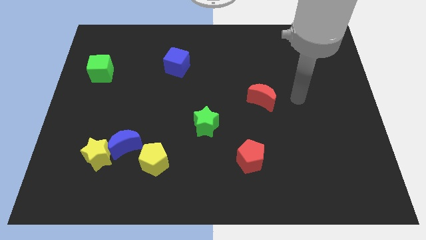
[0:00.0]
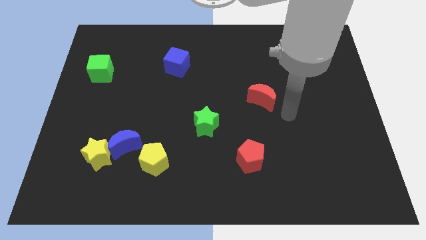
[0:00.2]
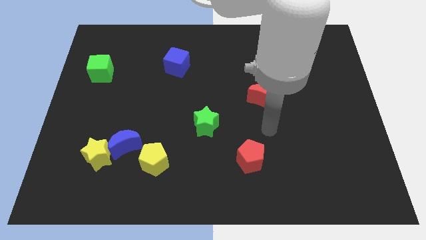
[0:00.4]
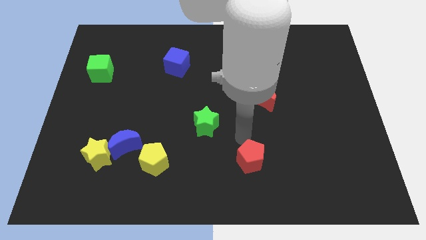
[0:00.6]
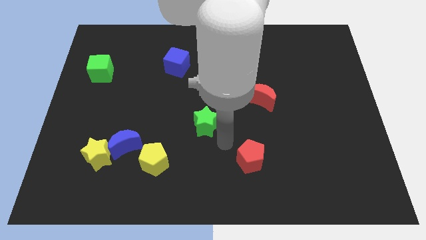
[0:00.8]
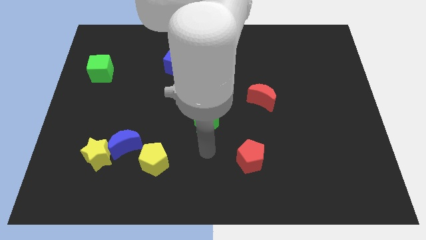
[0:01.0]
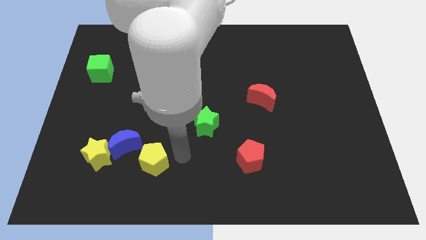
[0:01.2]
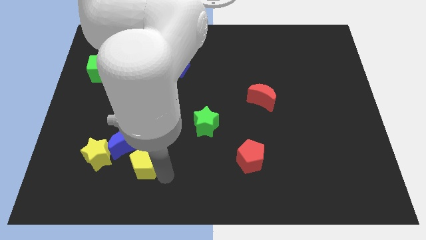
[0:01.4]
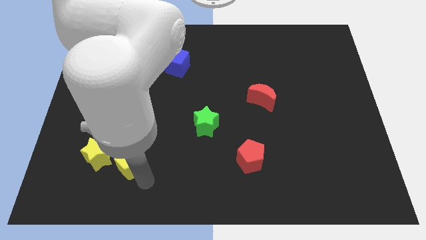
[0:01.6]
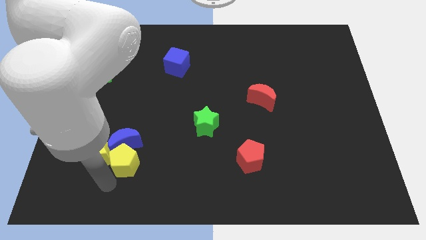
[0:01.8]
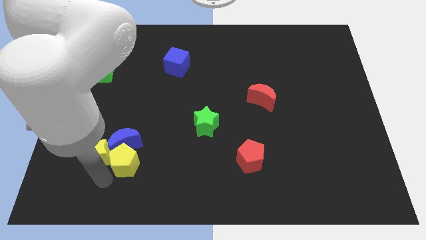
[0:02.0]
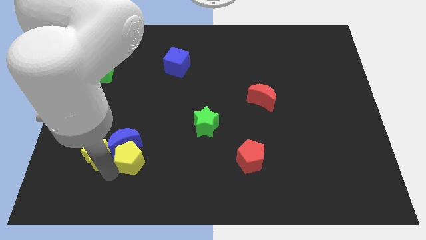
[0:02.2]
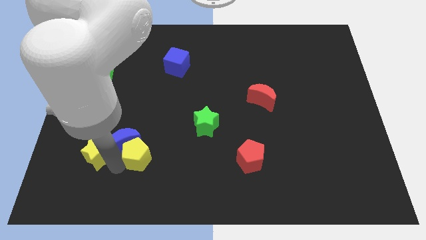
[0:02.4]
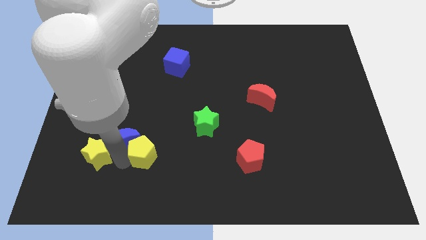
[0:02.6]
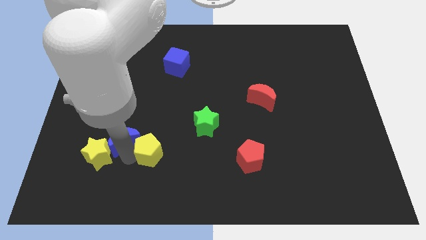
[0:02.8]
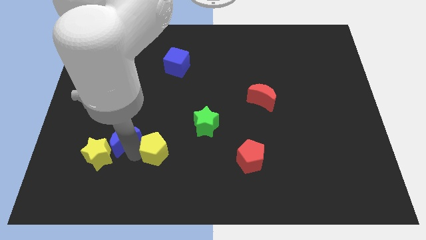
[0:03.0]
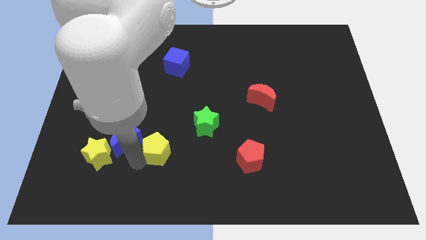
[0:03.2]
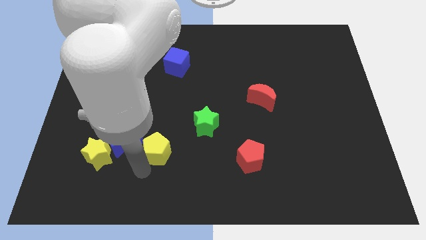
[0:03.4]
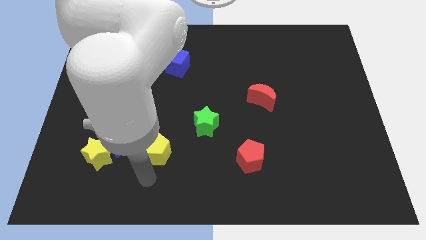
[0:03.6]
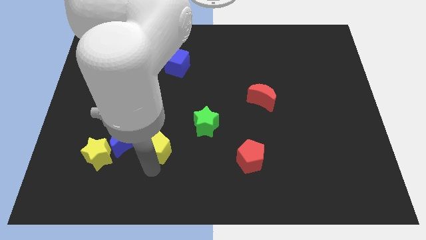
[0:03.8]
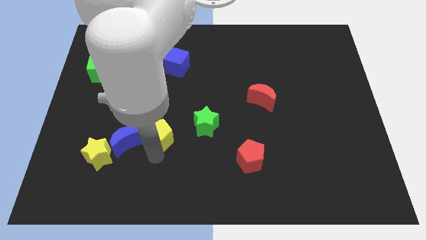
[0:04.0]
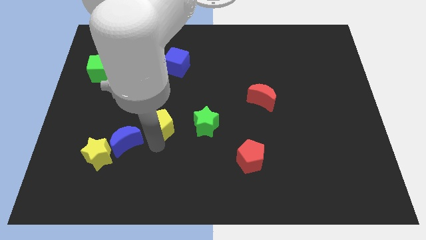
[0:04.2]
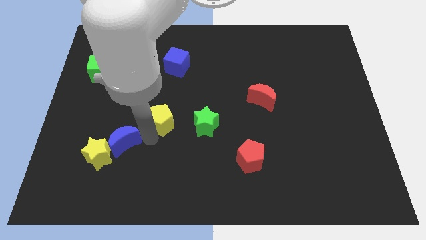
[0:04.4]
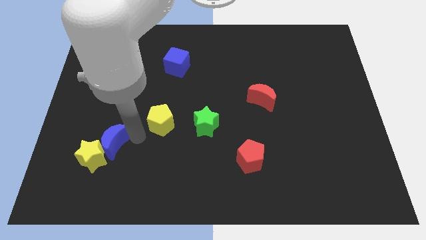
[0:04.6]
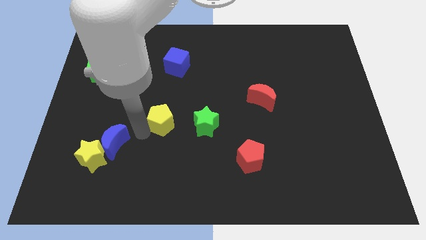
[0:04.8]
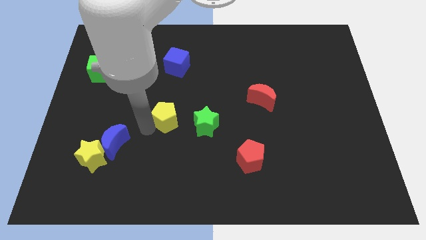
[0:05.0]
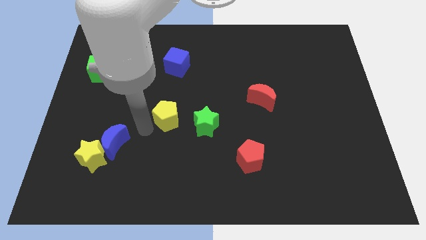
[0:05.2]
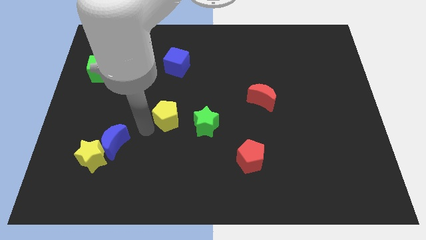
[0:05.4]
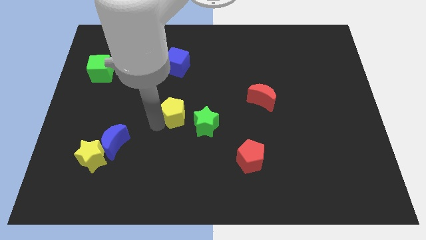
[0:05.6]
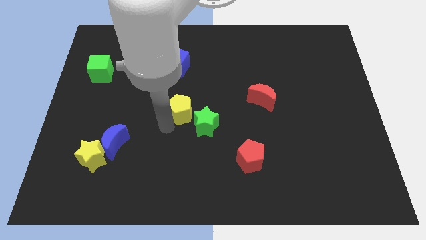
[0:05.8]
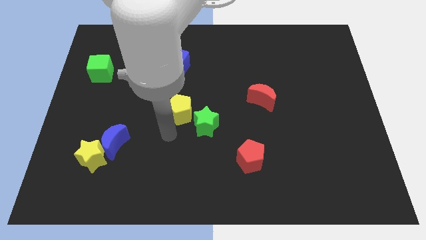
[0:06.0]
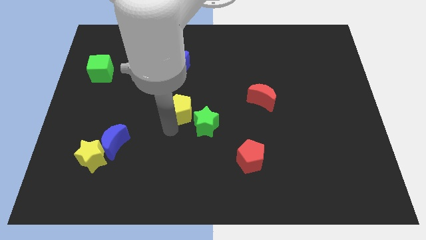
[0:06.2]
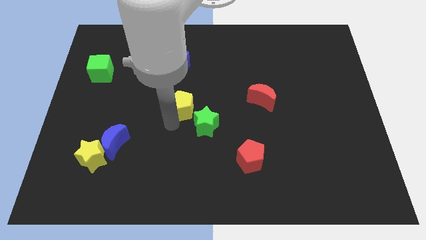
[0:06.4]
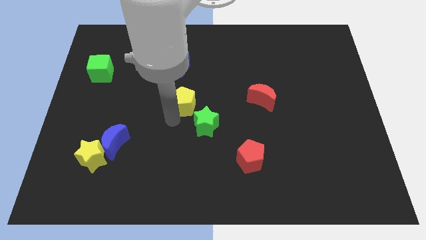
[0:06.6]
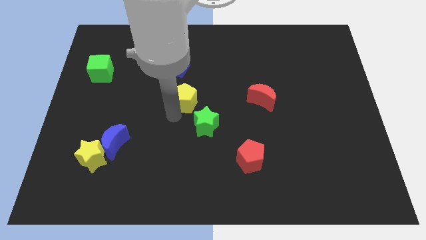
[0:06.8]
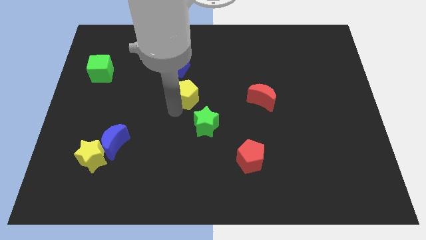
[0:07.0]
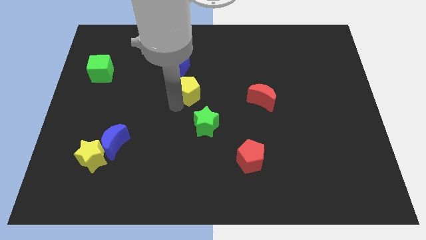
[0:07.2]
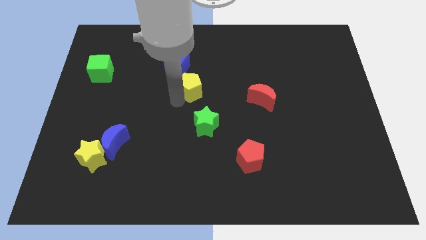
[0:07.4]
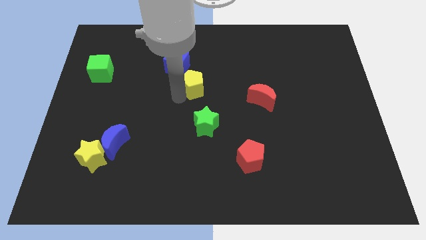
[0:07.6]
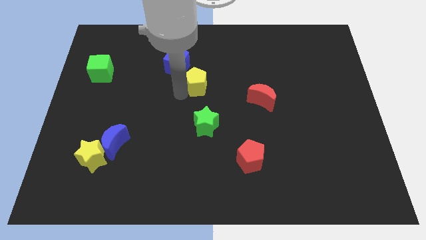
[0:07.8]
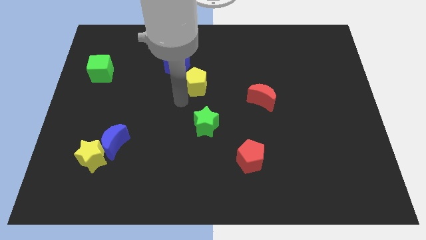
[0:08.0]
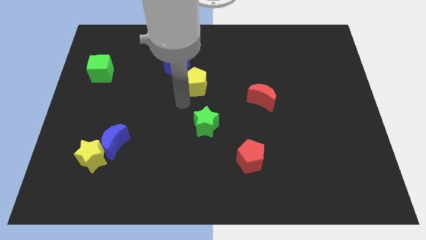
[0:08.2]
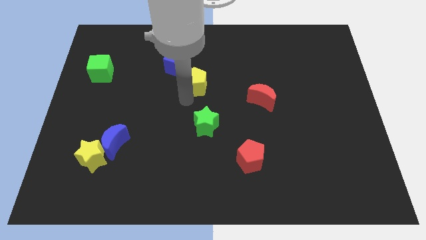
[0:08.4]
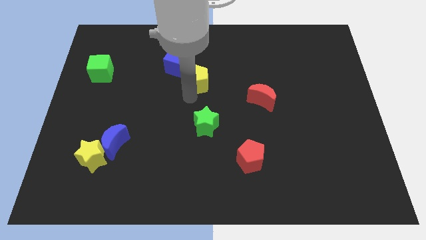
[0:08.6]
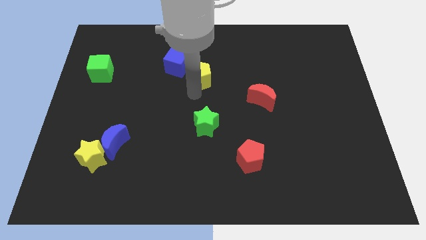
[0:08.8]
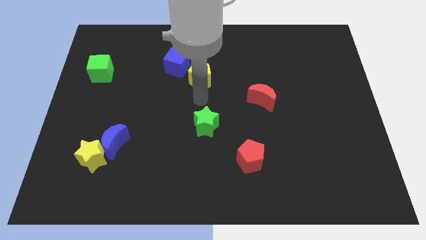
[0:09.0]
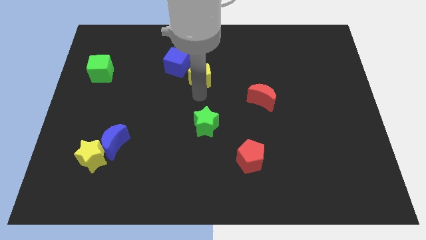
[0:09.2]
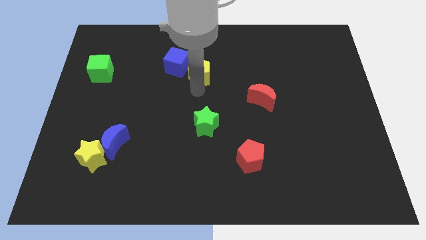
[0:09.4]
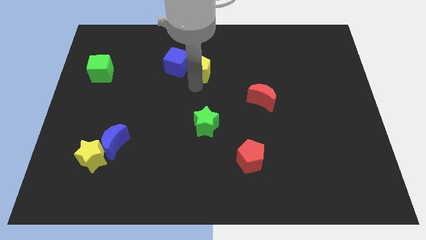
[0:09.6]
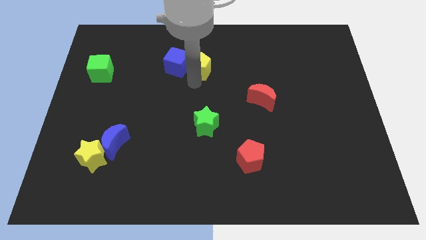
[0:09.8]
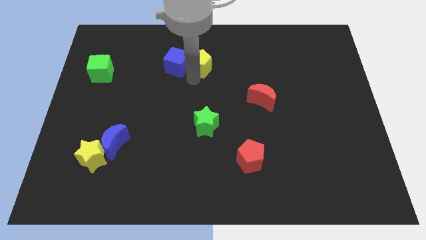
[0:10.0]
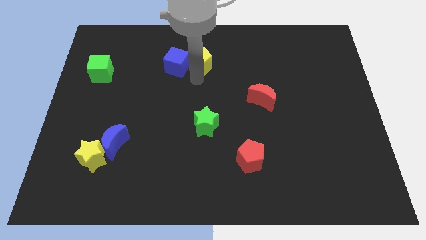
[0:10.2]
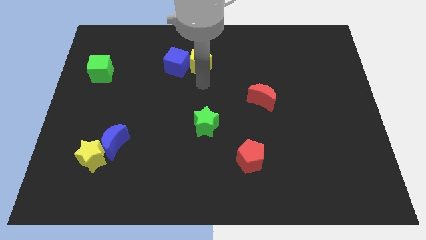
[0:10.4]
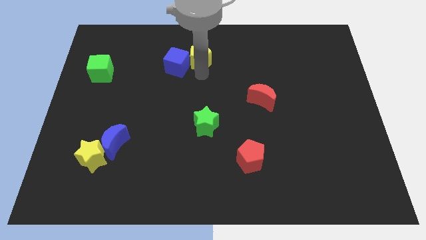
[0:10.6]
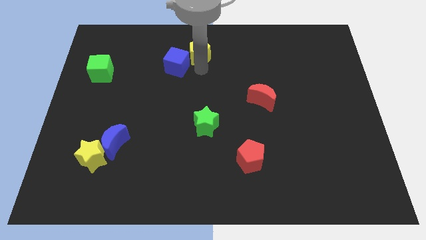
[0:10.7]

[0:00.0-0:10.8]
slide the yellow pentagon to the top

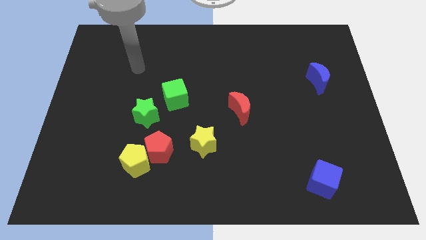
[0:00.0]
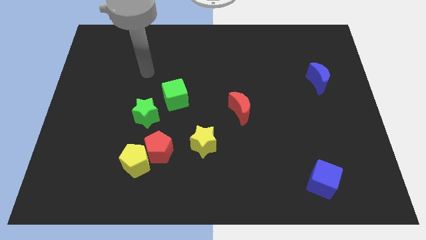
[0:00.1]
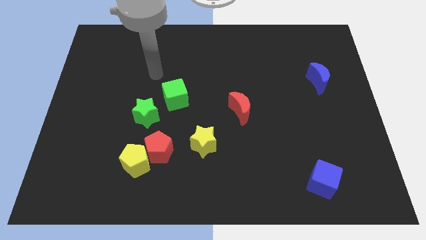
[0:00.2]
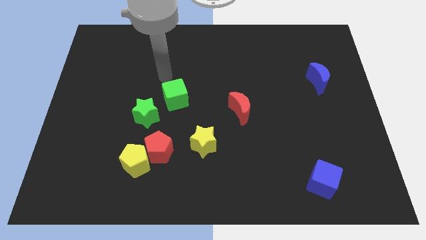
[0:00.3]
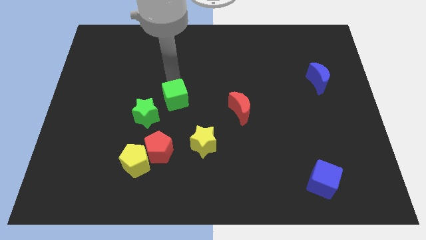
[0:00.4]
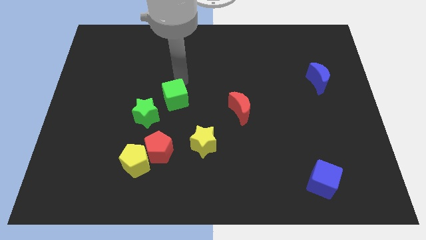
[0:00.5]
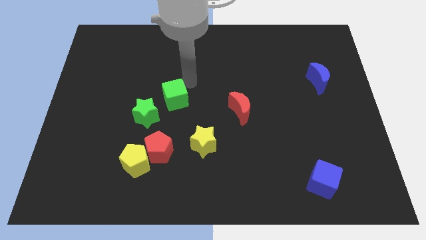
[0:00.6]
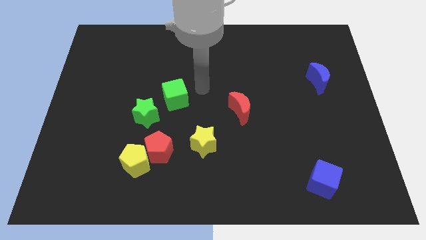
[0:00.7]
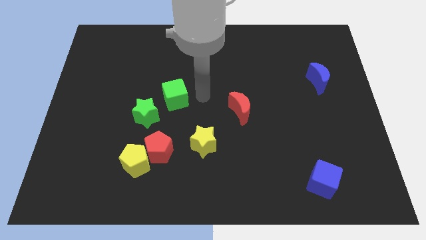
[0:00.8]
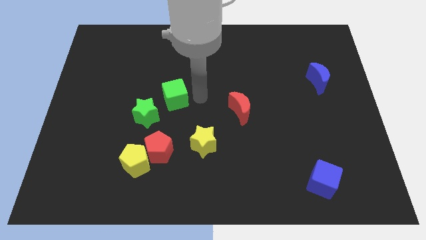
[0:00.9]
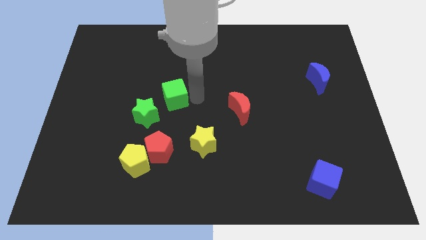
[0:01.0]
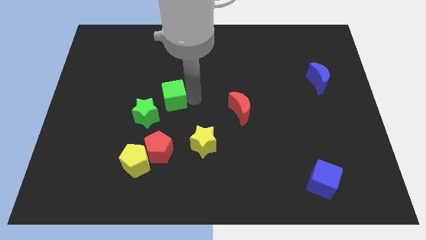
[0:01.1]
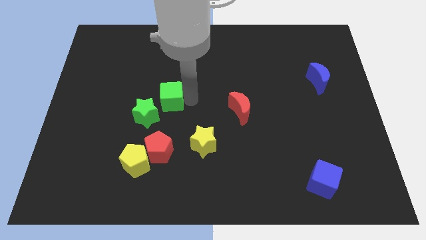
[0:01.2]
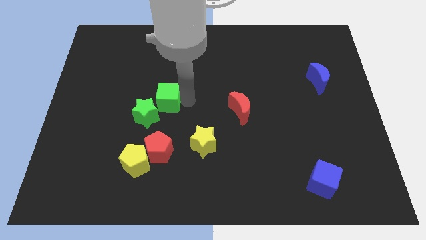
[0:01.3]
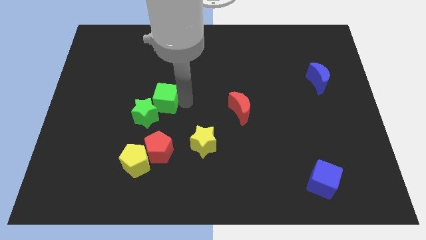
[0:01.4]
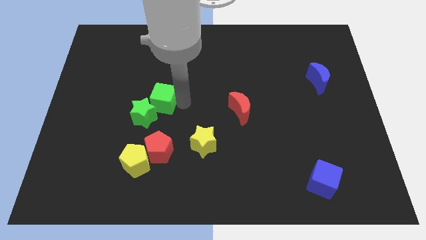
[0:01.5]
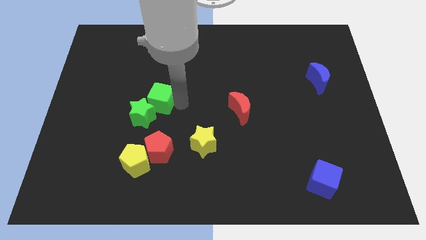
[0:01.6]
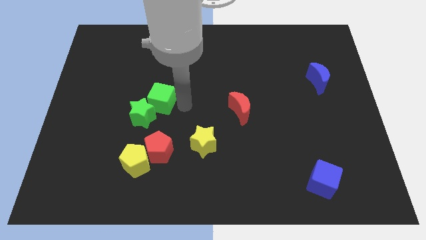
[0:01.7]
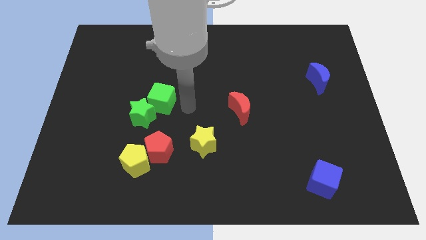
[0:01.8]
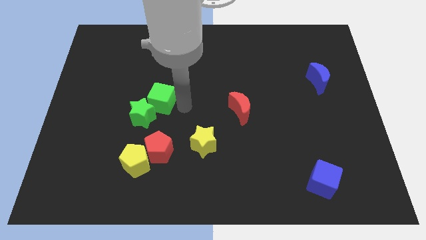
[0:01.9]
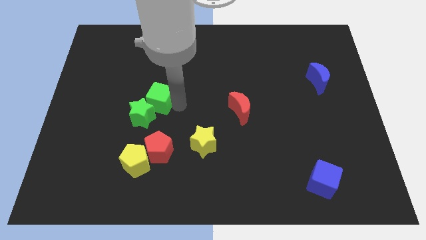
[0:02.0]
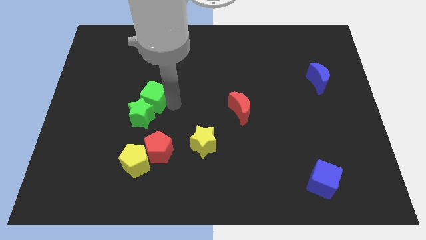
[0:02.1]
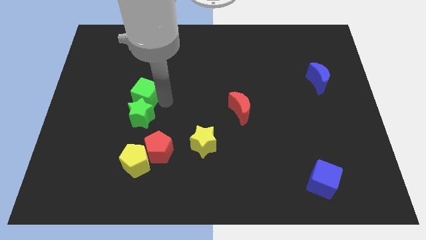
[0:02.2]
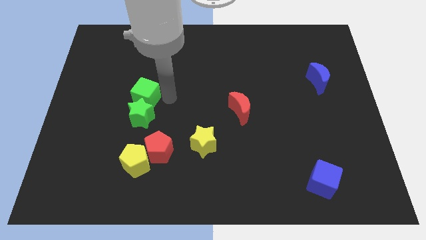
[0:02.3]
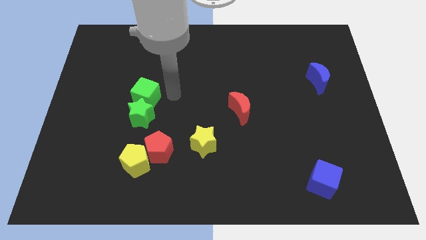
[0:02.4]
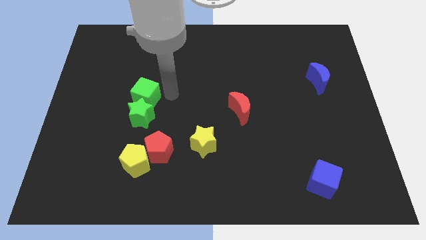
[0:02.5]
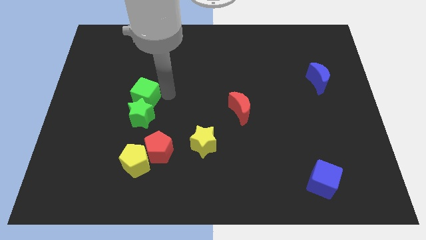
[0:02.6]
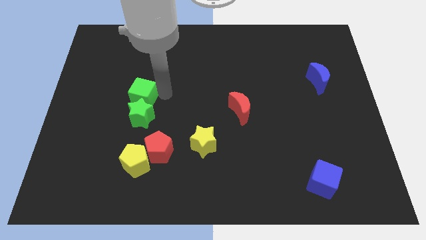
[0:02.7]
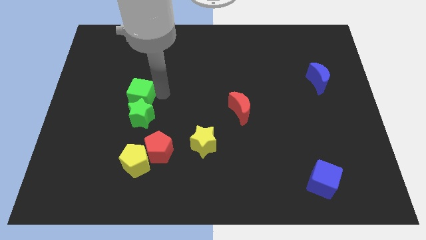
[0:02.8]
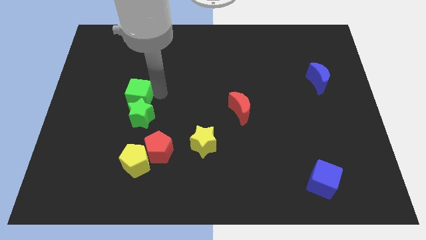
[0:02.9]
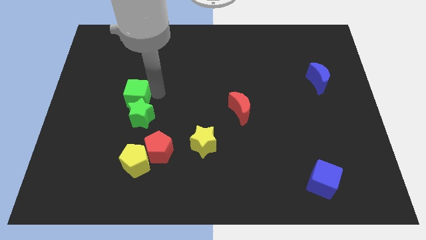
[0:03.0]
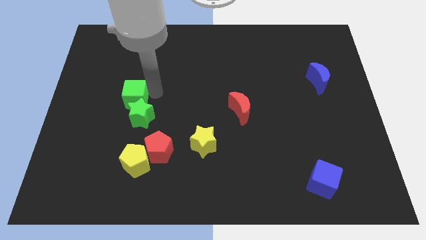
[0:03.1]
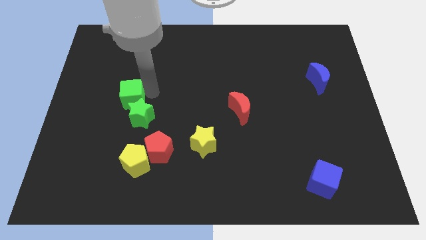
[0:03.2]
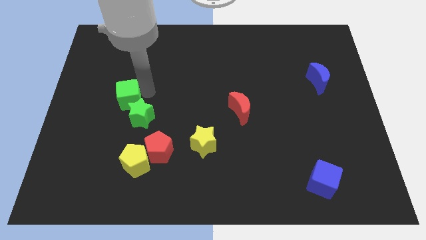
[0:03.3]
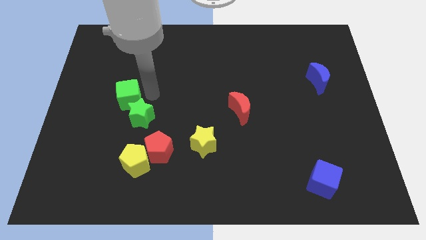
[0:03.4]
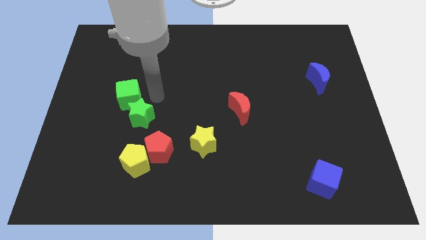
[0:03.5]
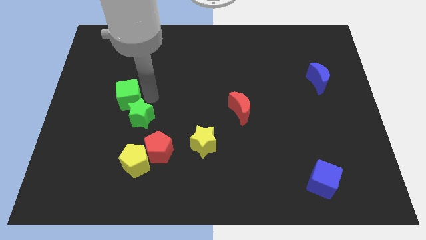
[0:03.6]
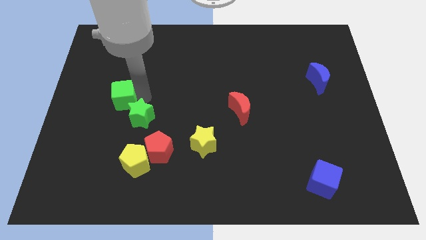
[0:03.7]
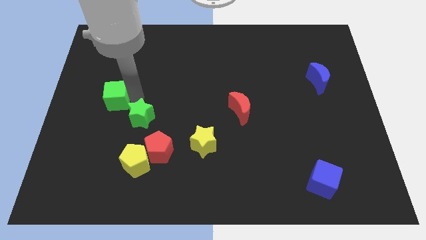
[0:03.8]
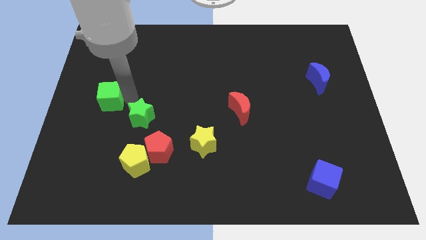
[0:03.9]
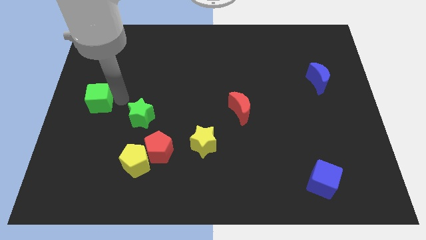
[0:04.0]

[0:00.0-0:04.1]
slide the green cube to the left side of the board
